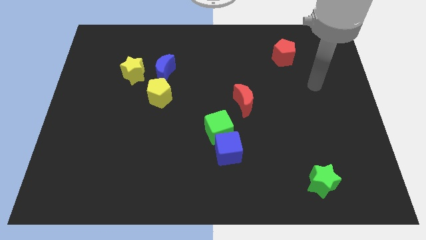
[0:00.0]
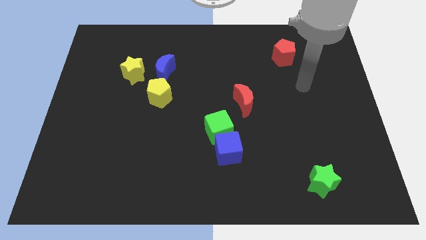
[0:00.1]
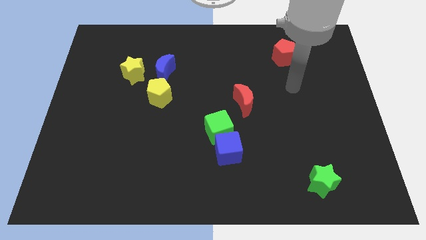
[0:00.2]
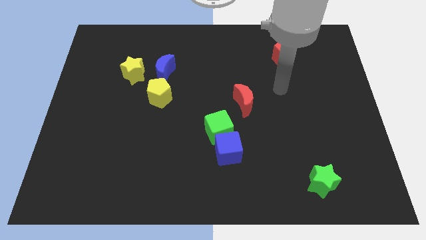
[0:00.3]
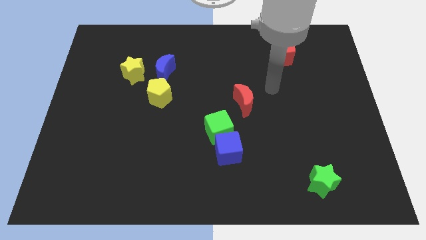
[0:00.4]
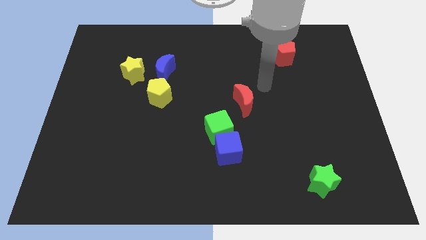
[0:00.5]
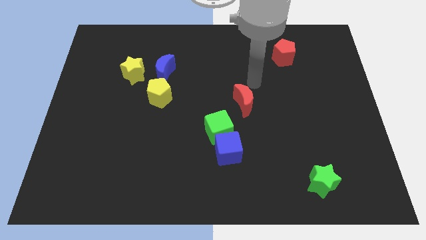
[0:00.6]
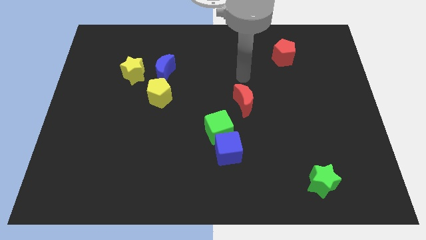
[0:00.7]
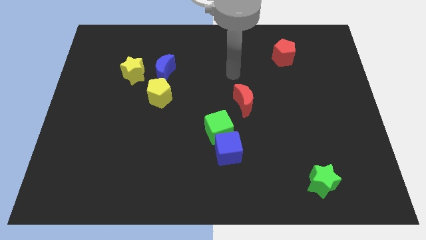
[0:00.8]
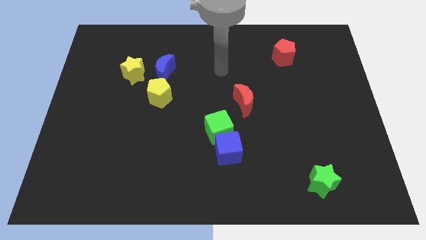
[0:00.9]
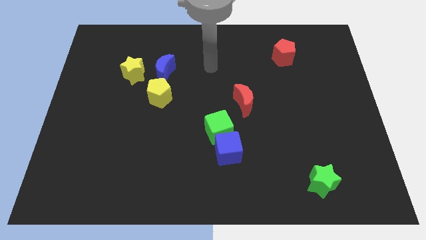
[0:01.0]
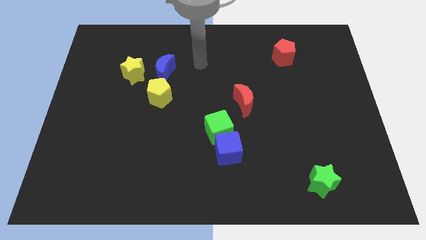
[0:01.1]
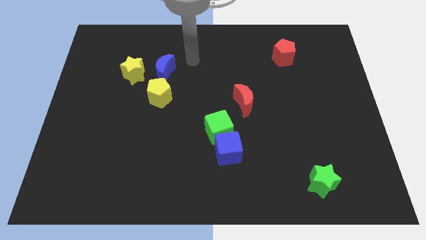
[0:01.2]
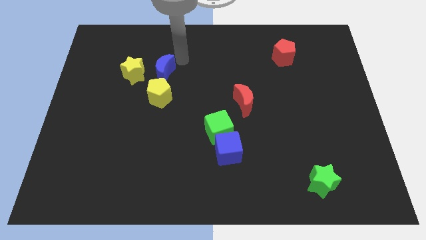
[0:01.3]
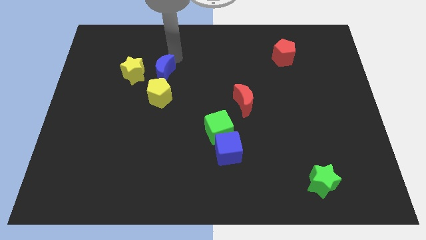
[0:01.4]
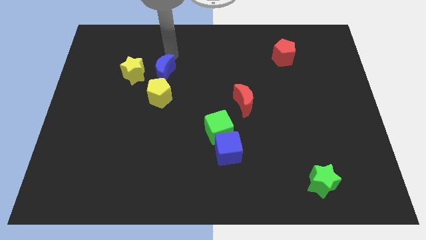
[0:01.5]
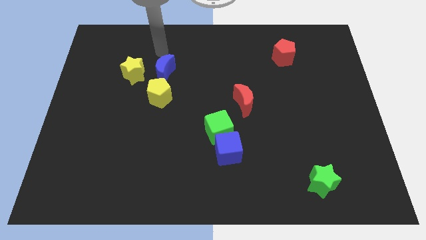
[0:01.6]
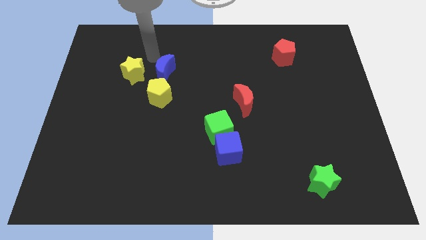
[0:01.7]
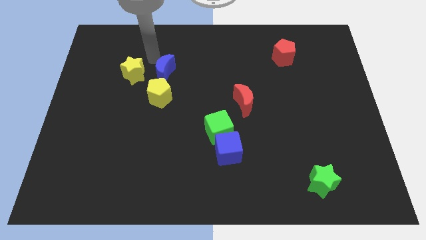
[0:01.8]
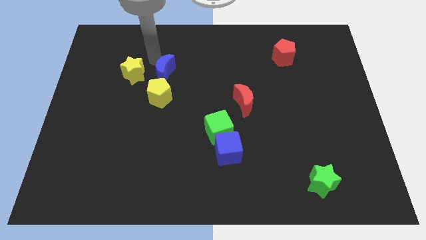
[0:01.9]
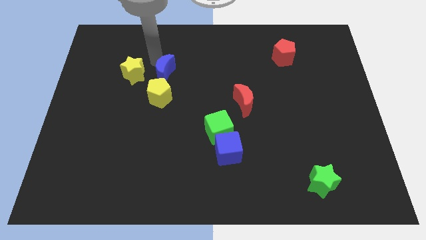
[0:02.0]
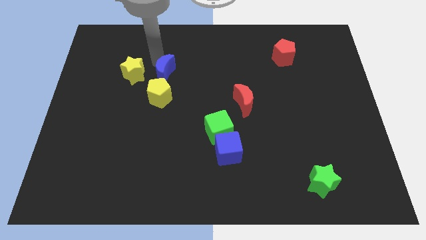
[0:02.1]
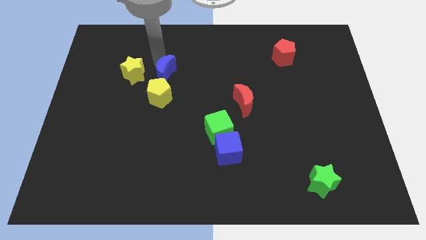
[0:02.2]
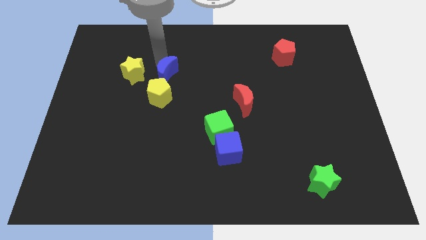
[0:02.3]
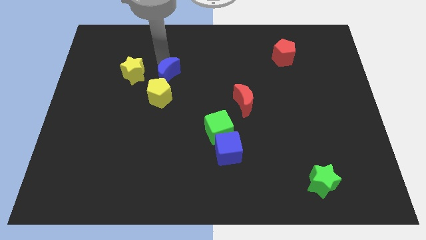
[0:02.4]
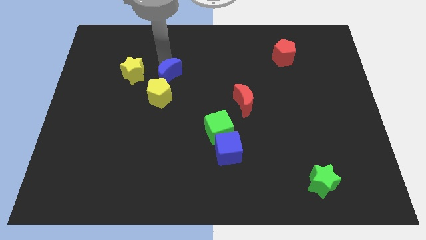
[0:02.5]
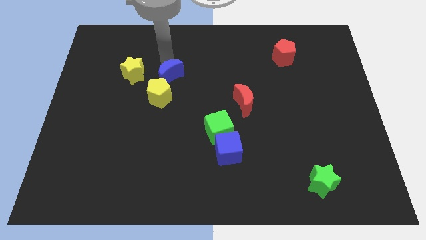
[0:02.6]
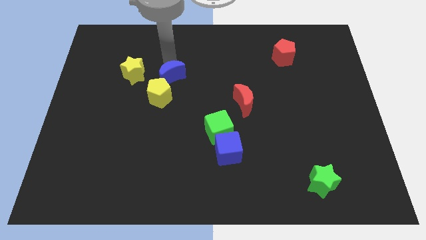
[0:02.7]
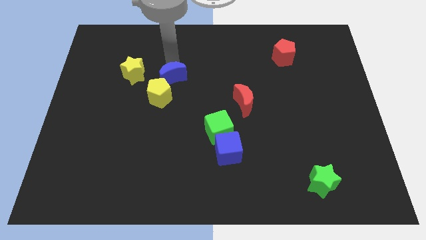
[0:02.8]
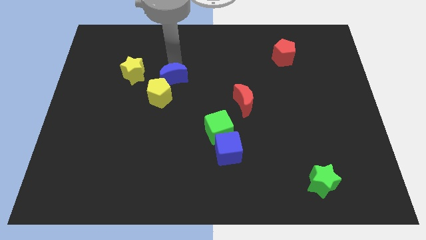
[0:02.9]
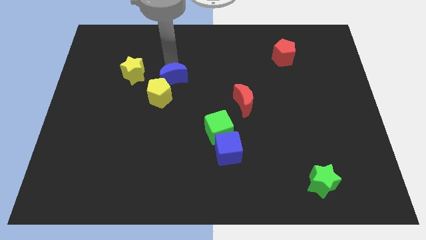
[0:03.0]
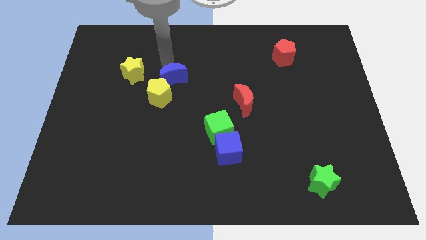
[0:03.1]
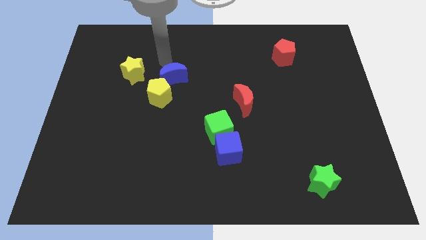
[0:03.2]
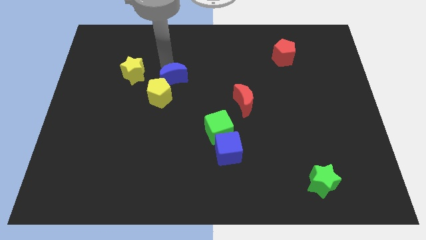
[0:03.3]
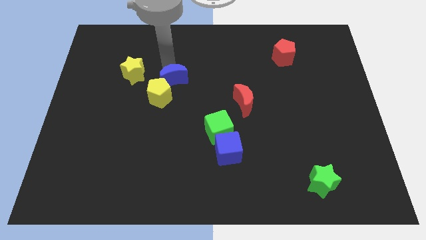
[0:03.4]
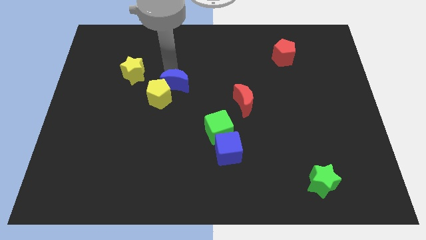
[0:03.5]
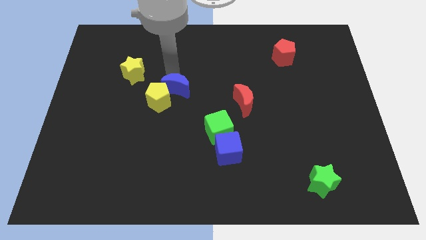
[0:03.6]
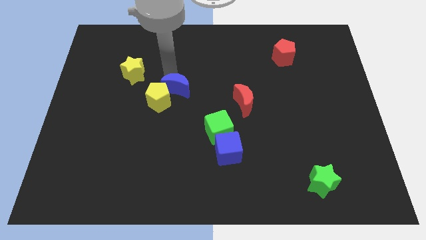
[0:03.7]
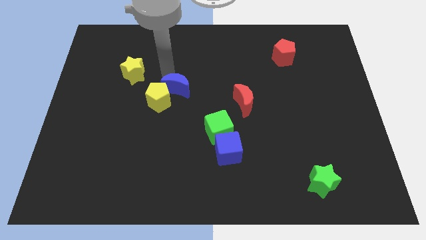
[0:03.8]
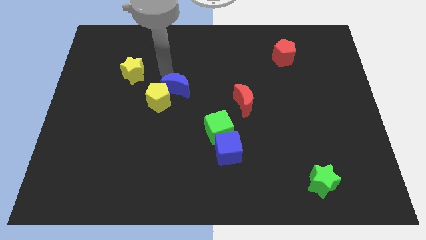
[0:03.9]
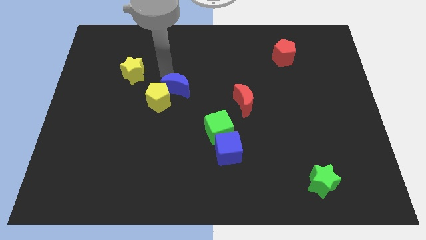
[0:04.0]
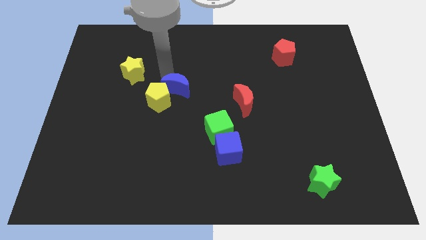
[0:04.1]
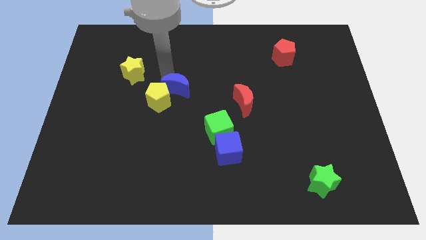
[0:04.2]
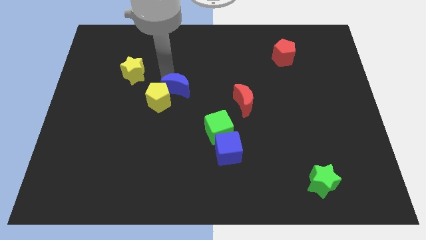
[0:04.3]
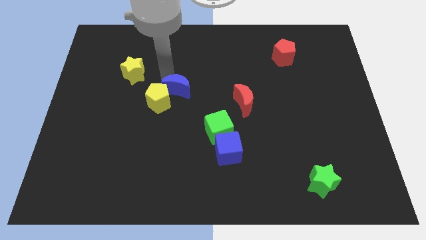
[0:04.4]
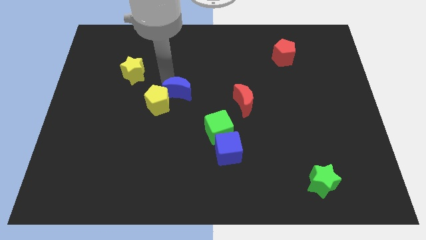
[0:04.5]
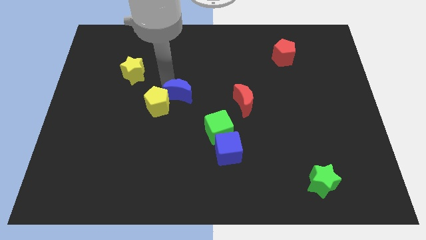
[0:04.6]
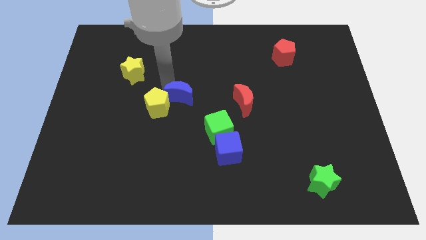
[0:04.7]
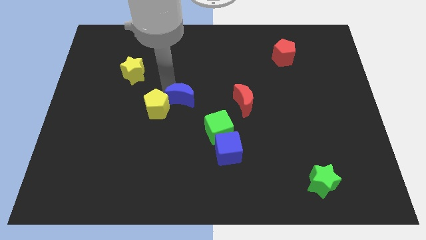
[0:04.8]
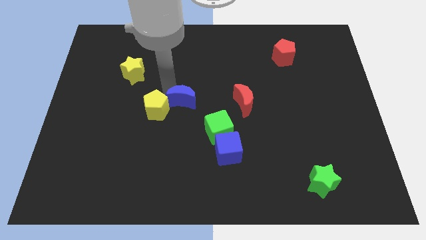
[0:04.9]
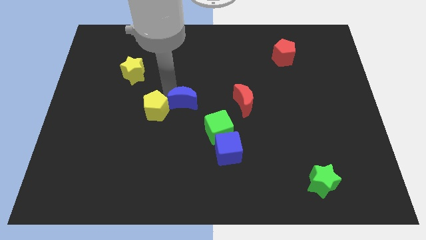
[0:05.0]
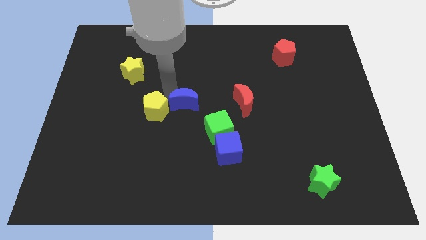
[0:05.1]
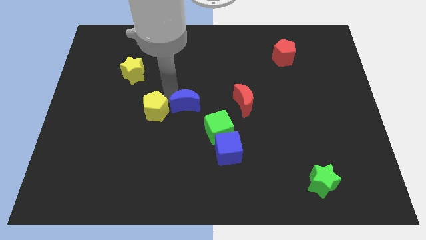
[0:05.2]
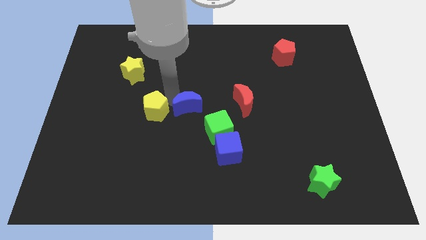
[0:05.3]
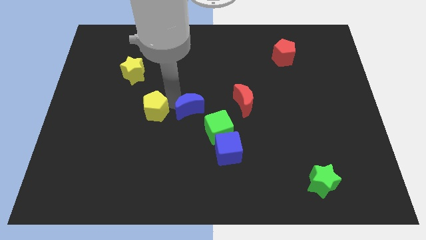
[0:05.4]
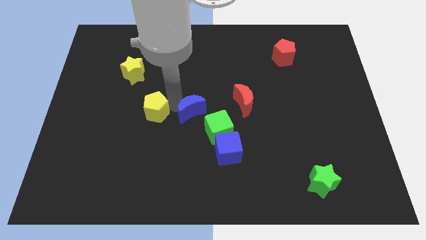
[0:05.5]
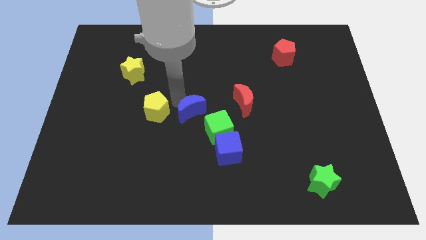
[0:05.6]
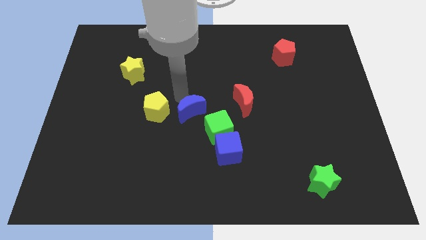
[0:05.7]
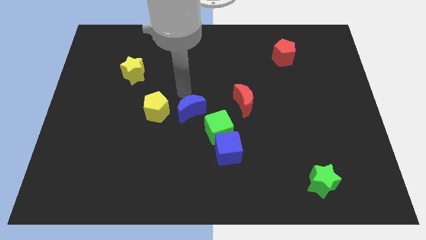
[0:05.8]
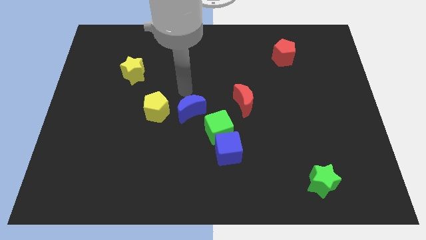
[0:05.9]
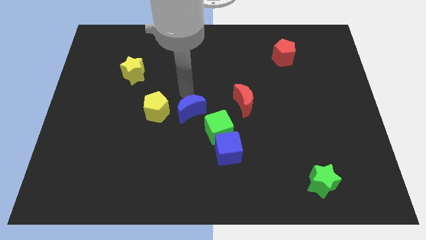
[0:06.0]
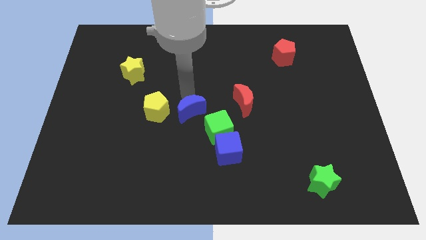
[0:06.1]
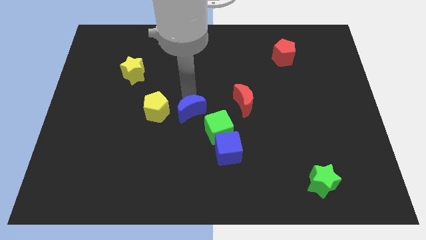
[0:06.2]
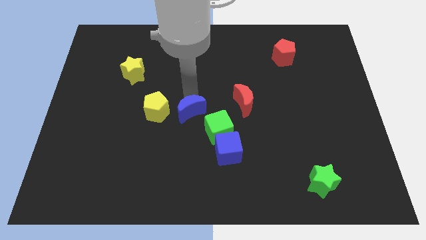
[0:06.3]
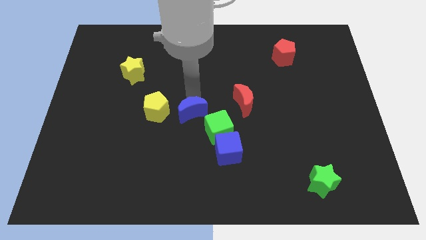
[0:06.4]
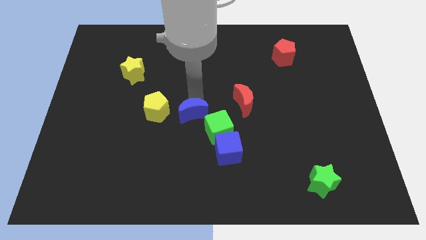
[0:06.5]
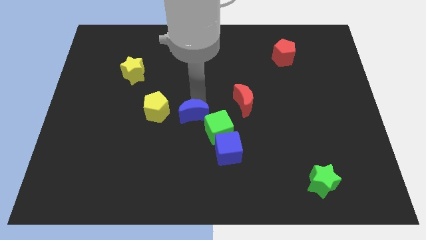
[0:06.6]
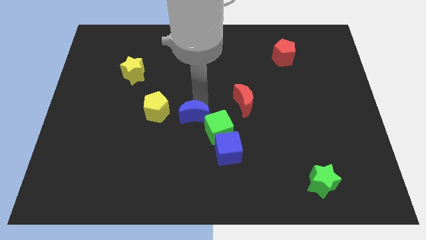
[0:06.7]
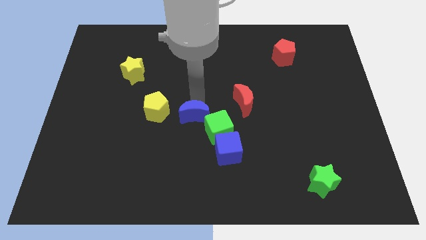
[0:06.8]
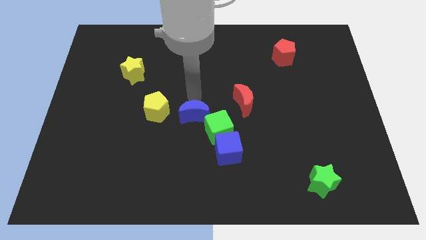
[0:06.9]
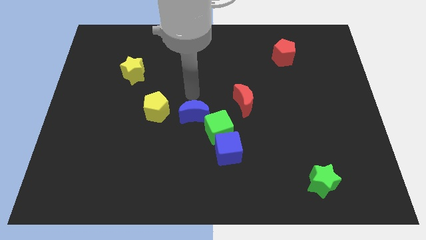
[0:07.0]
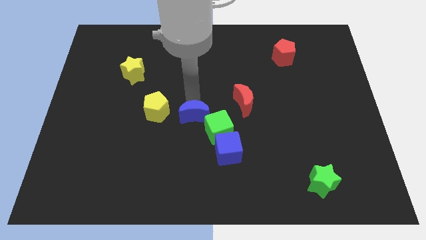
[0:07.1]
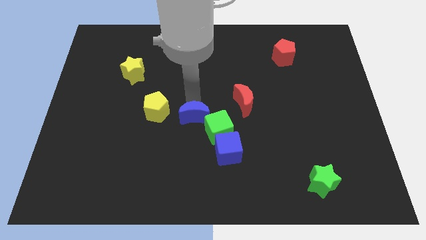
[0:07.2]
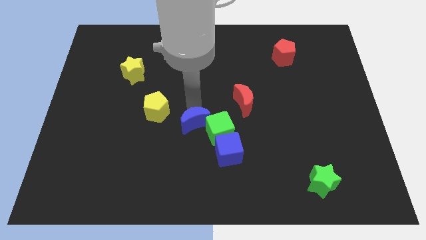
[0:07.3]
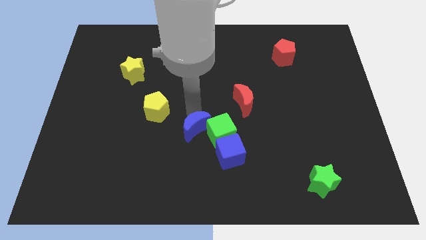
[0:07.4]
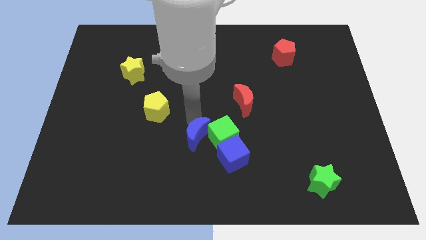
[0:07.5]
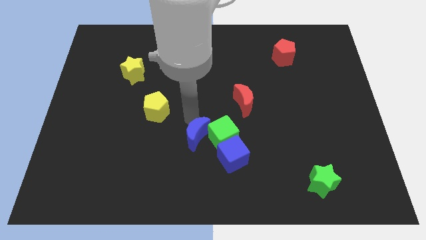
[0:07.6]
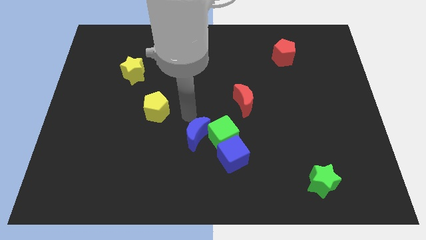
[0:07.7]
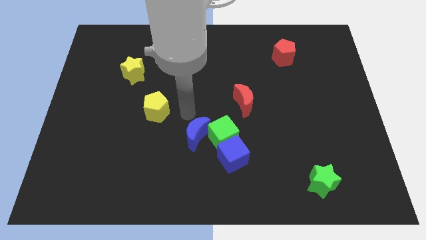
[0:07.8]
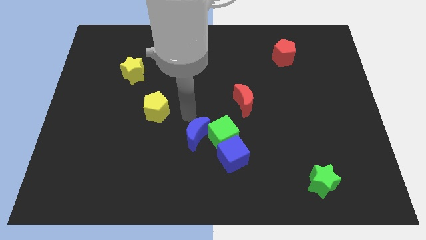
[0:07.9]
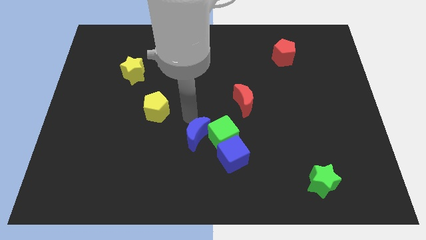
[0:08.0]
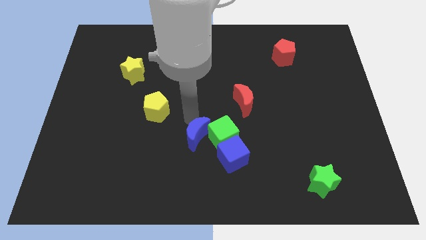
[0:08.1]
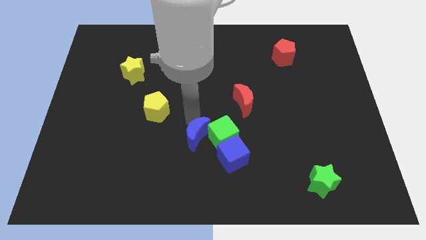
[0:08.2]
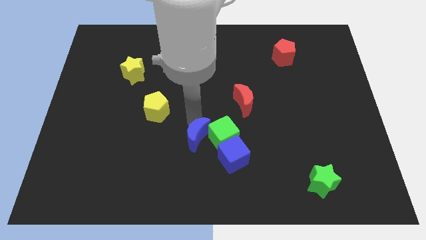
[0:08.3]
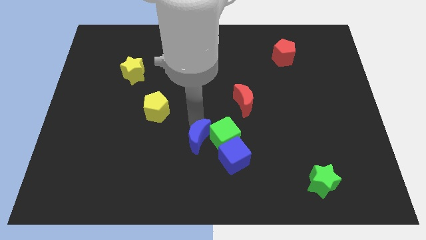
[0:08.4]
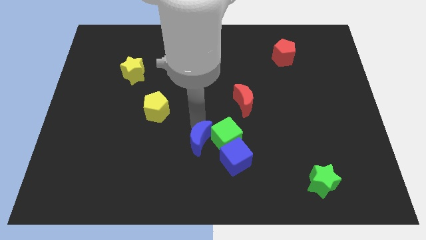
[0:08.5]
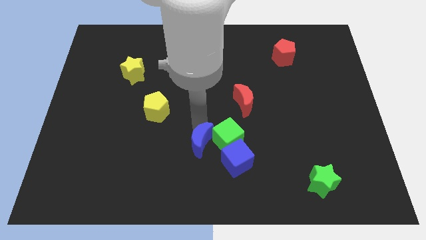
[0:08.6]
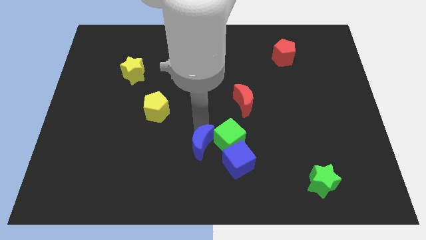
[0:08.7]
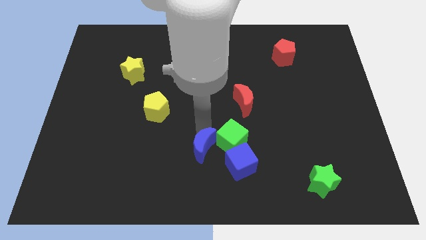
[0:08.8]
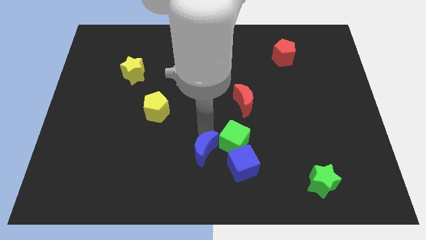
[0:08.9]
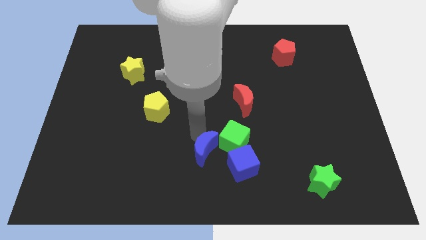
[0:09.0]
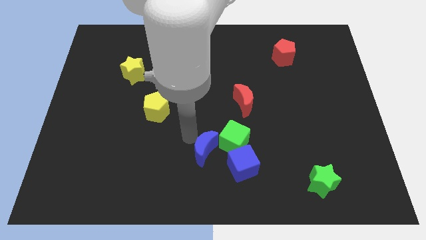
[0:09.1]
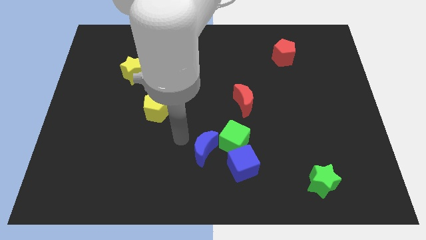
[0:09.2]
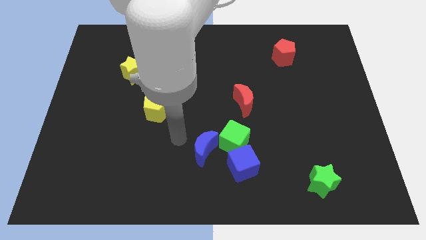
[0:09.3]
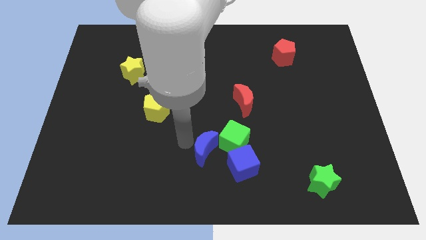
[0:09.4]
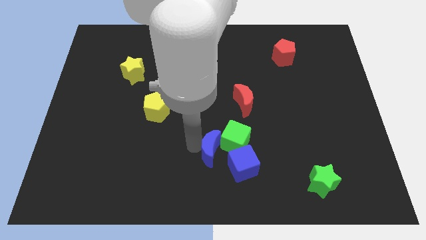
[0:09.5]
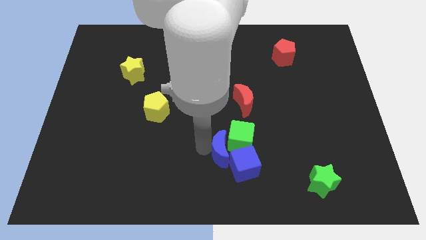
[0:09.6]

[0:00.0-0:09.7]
move the blue moon close to the blue cube
